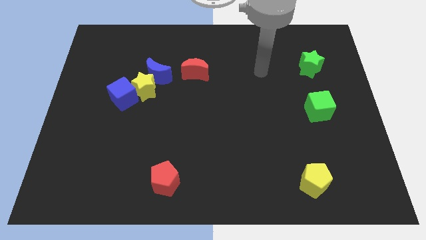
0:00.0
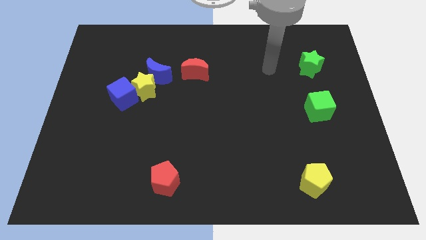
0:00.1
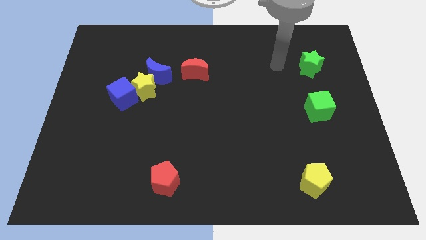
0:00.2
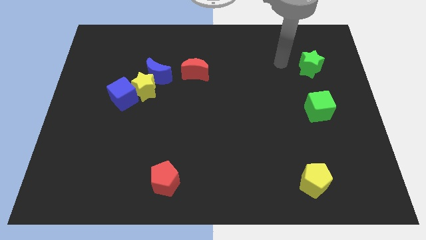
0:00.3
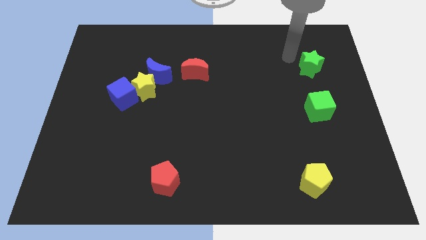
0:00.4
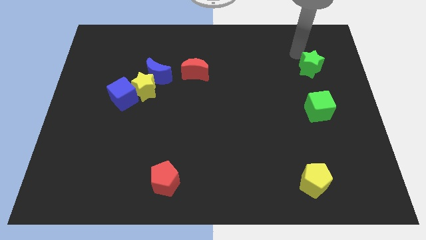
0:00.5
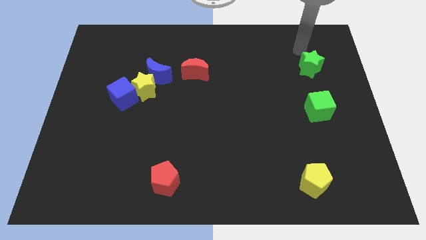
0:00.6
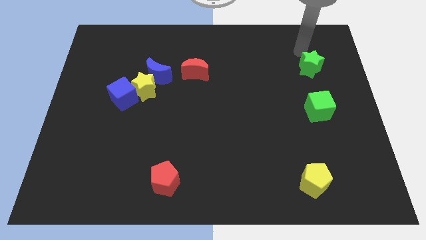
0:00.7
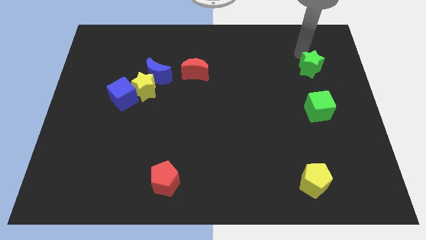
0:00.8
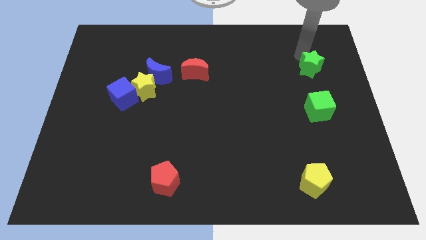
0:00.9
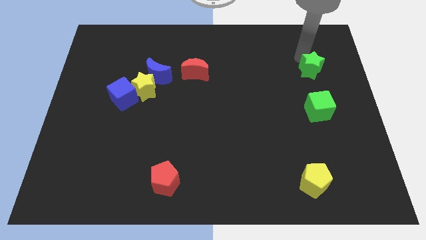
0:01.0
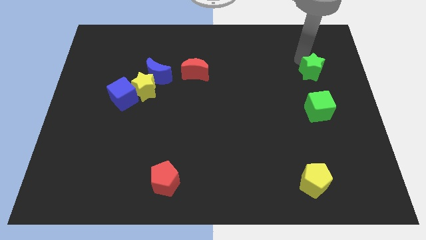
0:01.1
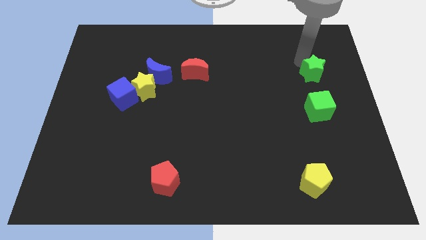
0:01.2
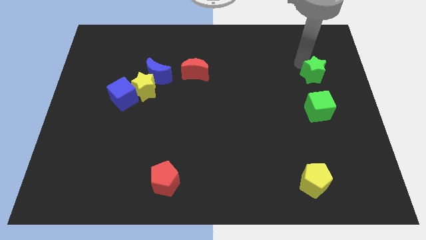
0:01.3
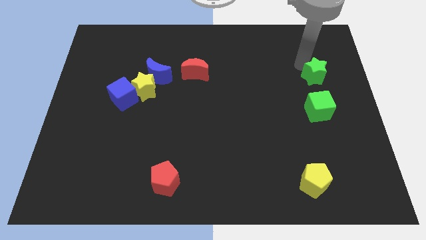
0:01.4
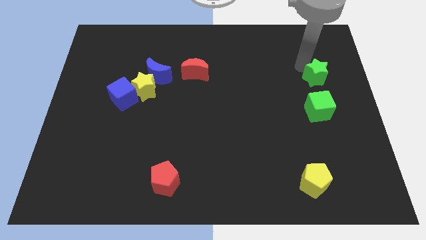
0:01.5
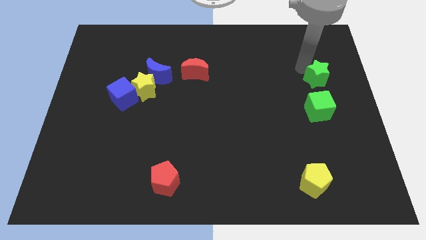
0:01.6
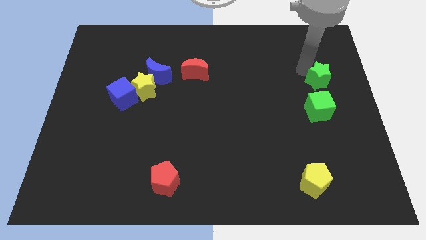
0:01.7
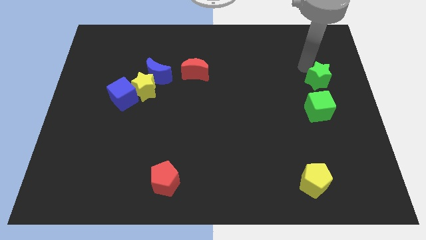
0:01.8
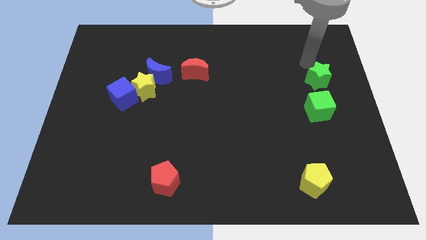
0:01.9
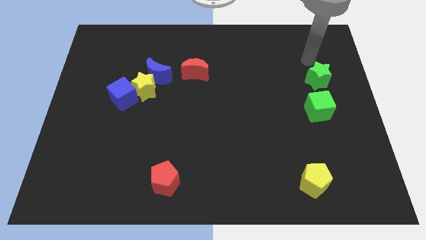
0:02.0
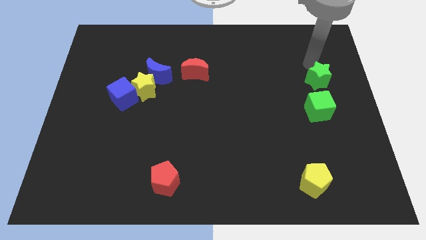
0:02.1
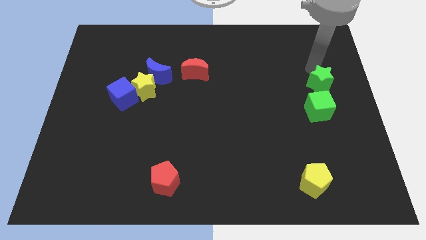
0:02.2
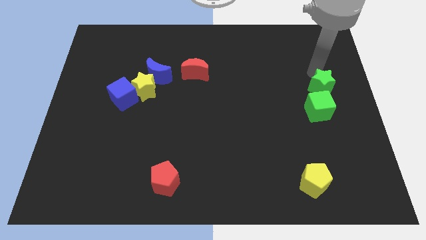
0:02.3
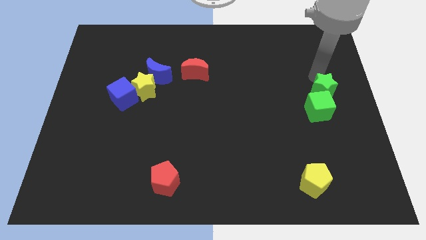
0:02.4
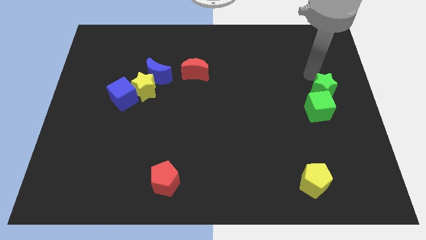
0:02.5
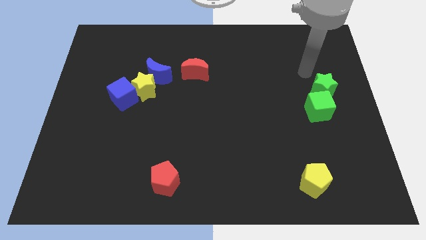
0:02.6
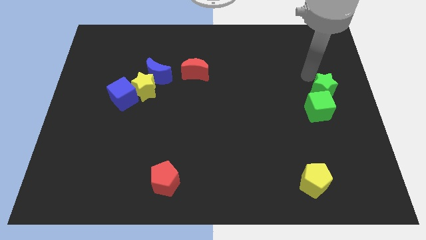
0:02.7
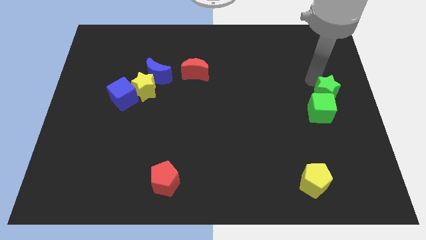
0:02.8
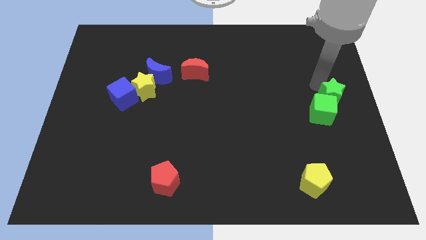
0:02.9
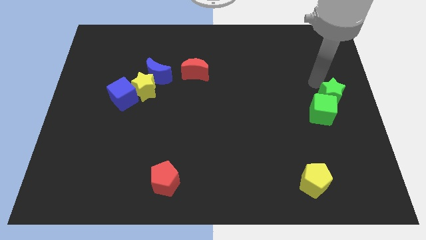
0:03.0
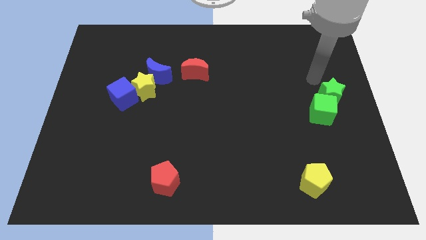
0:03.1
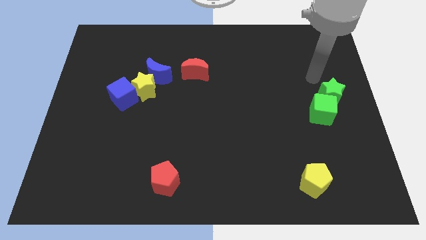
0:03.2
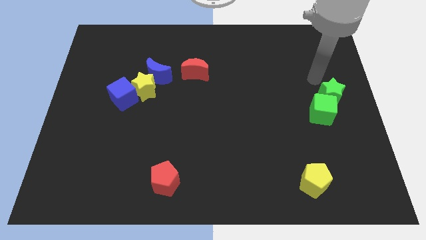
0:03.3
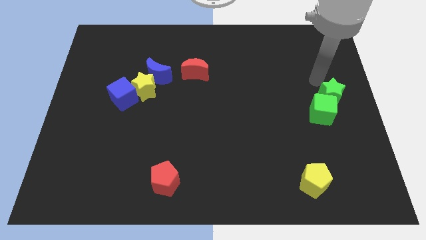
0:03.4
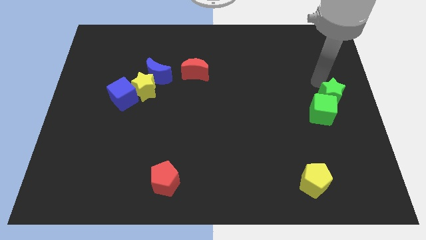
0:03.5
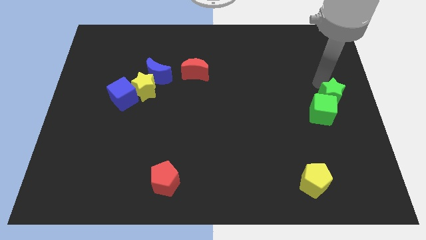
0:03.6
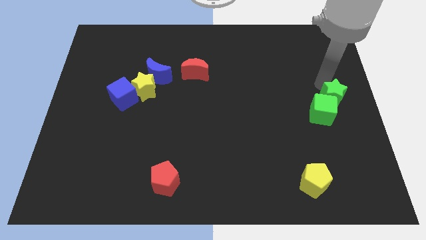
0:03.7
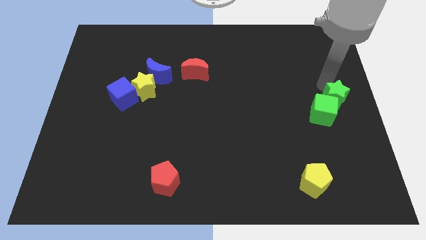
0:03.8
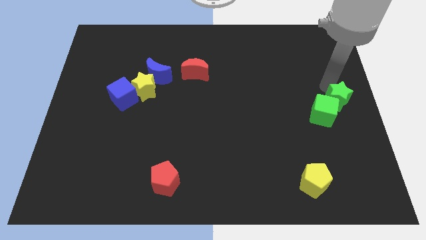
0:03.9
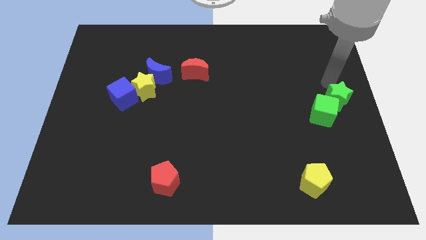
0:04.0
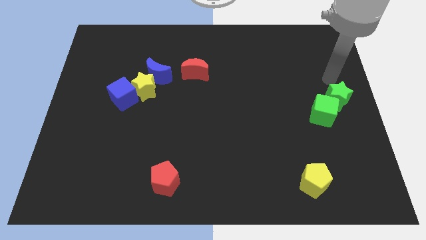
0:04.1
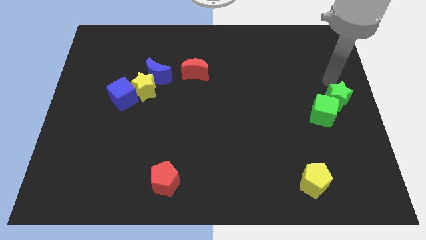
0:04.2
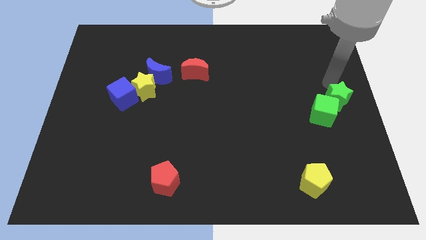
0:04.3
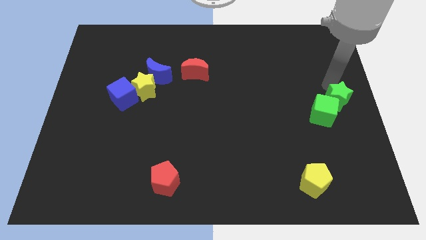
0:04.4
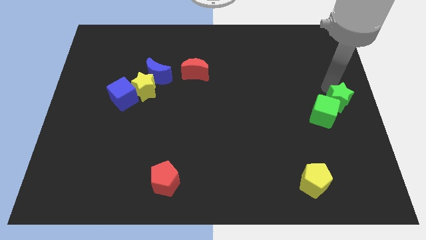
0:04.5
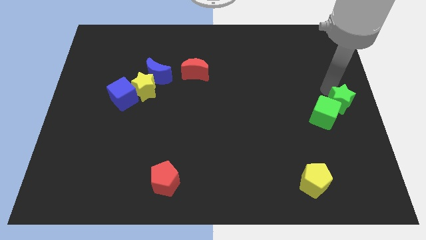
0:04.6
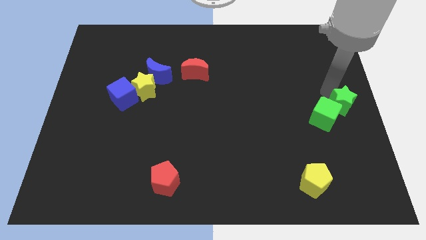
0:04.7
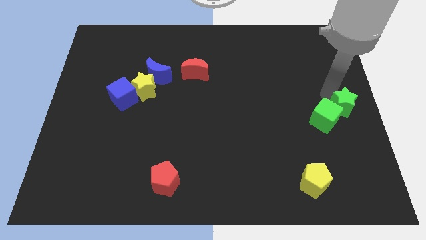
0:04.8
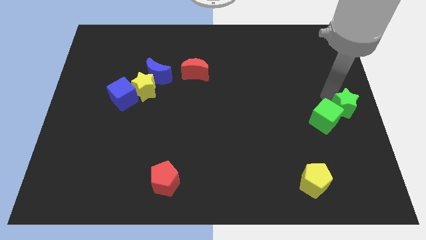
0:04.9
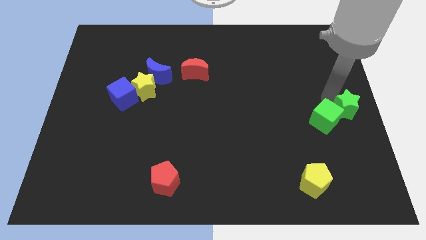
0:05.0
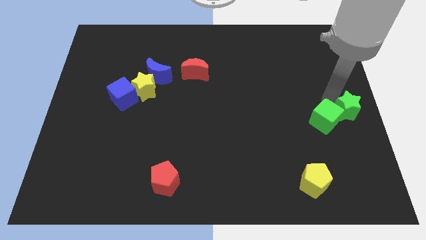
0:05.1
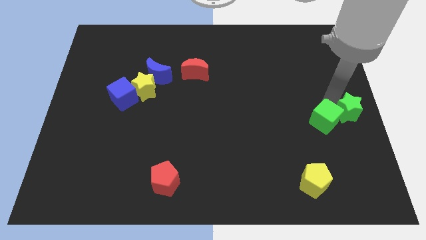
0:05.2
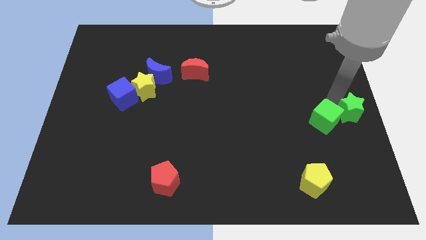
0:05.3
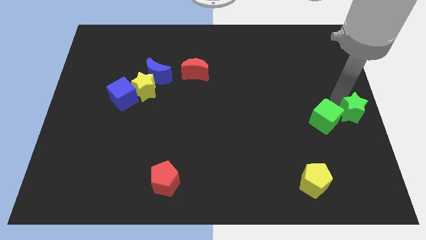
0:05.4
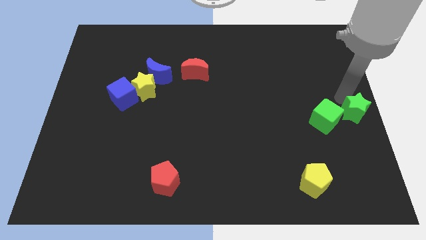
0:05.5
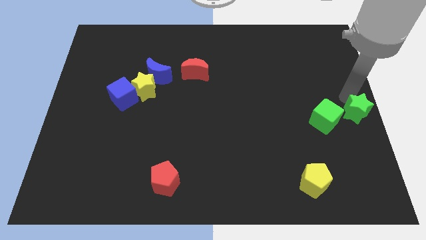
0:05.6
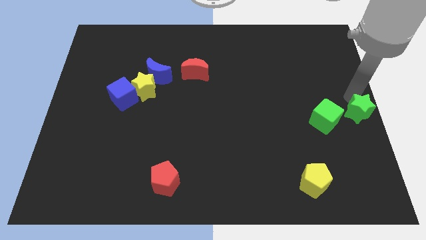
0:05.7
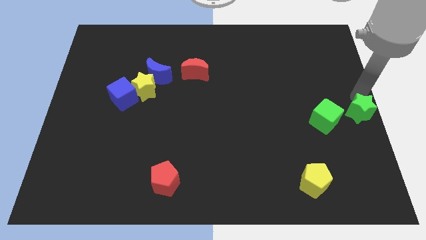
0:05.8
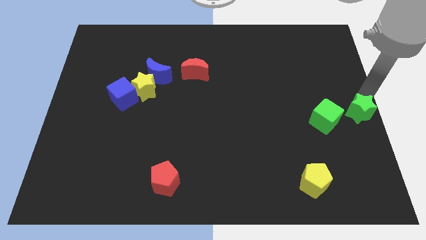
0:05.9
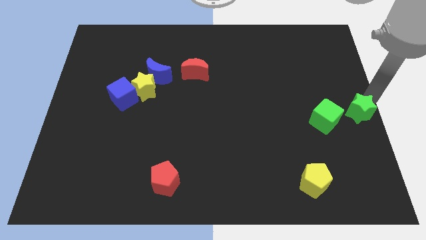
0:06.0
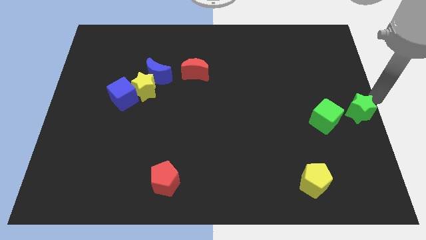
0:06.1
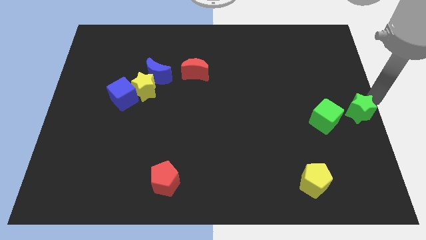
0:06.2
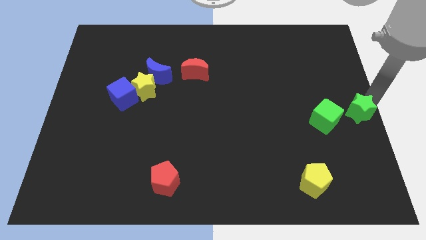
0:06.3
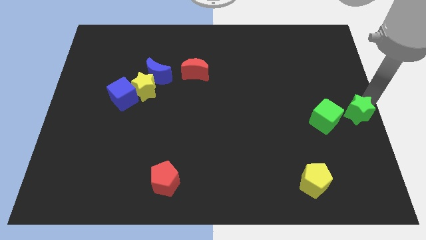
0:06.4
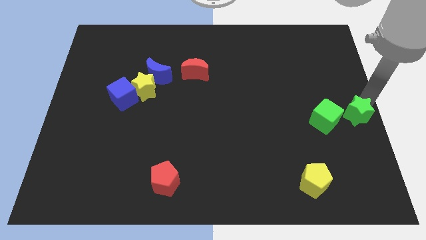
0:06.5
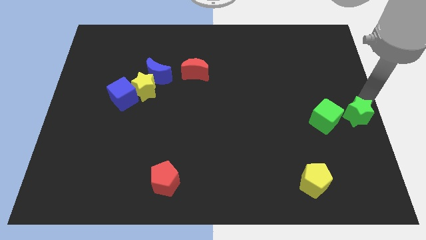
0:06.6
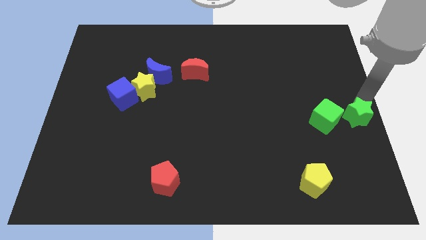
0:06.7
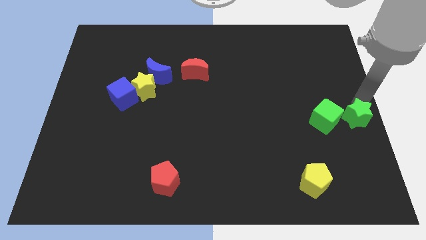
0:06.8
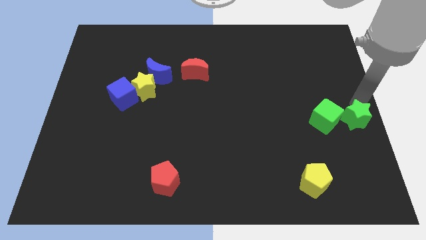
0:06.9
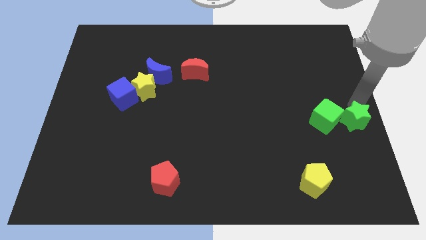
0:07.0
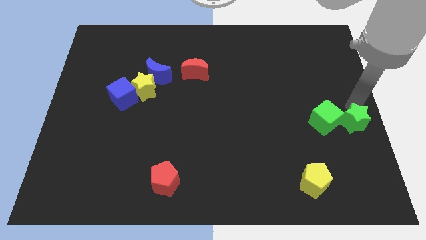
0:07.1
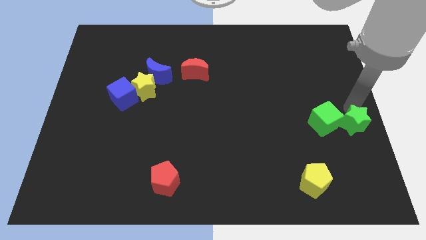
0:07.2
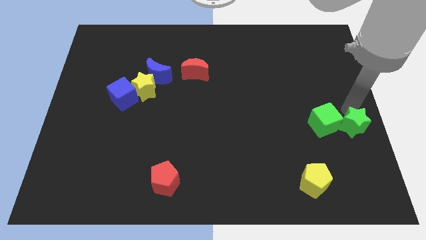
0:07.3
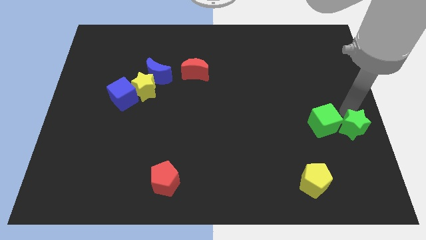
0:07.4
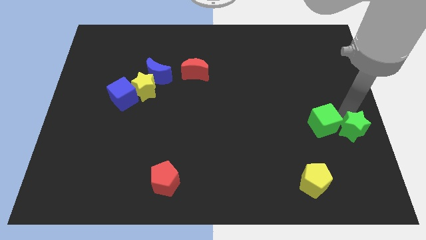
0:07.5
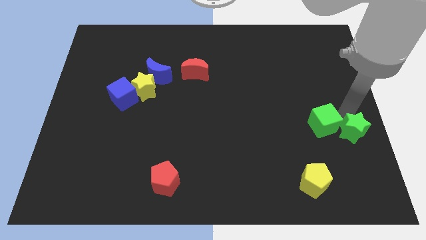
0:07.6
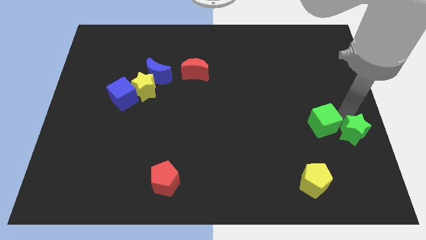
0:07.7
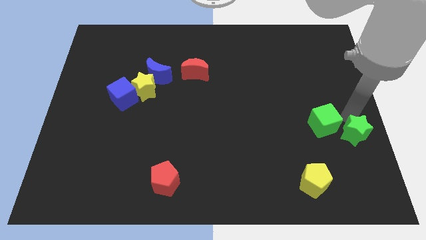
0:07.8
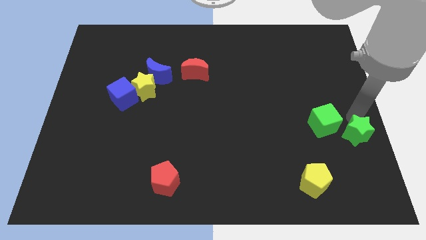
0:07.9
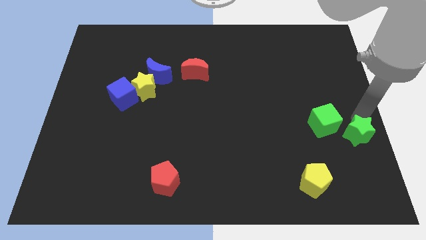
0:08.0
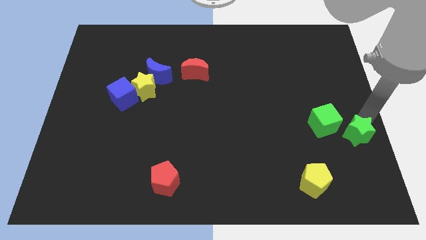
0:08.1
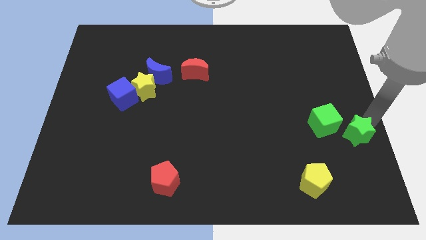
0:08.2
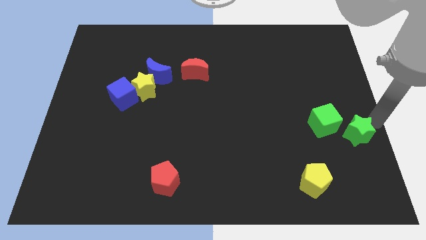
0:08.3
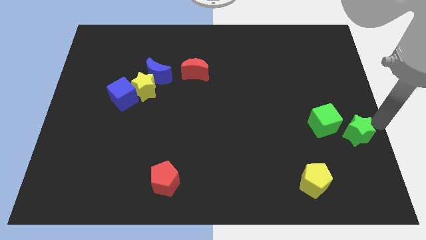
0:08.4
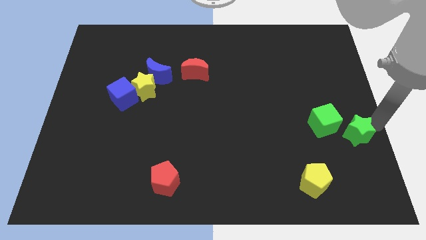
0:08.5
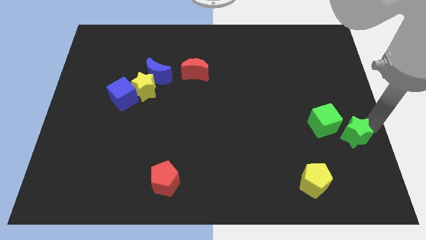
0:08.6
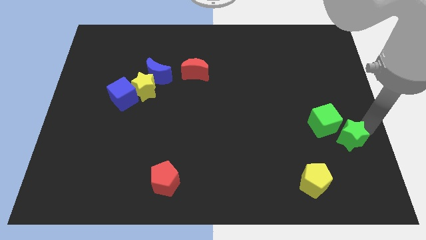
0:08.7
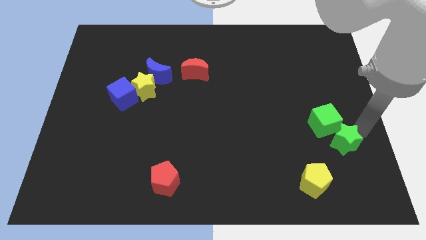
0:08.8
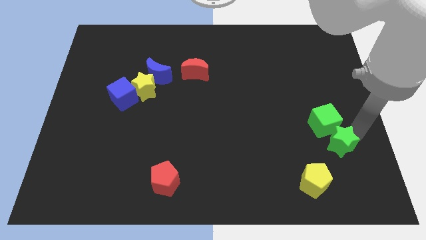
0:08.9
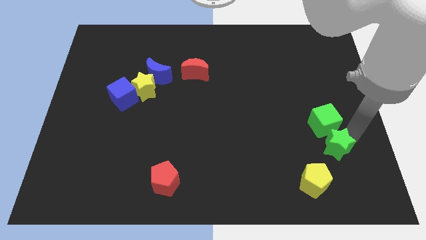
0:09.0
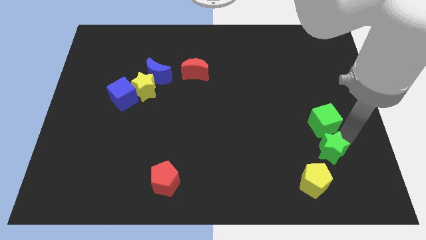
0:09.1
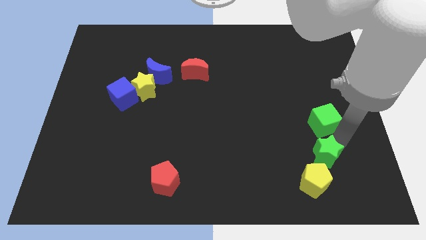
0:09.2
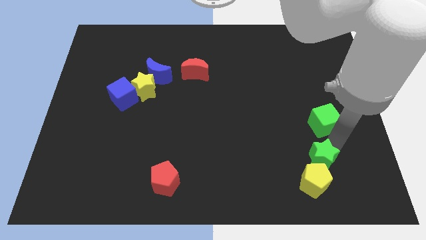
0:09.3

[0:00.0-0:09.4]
slide the green star to the yellow pentagon
